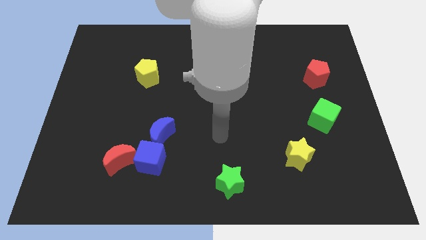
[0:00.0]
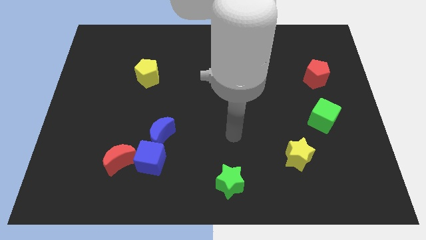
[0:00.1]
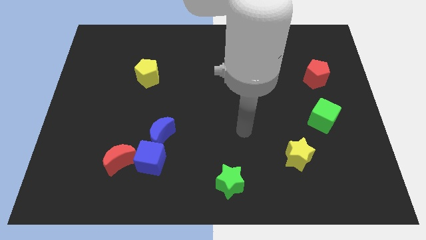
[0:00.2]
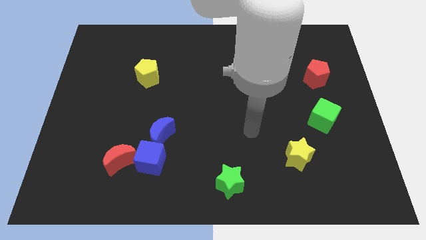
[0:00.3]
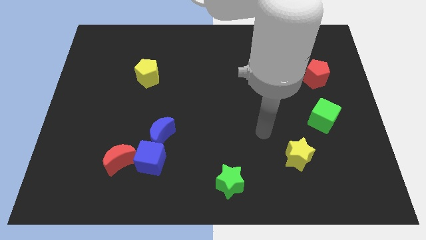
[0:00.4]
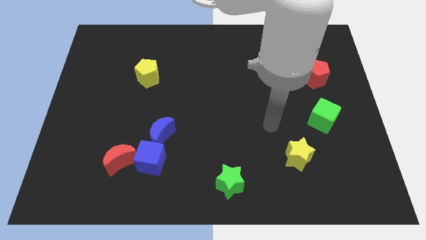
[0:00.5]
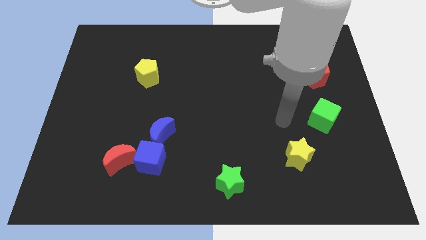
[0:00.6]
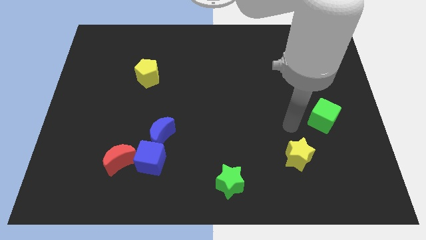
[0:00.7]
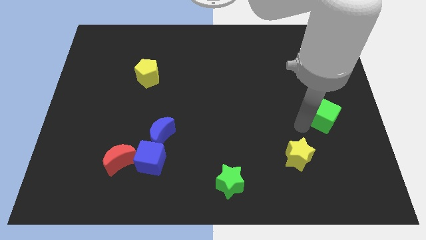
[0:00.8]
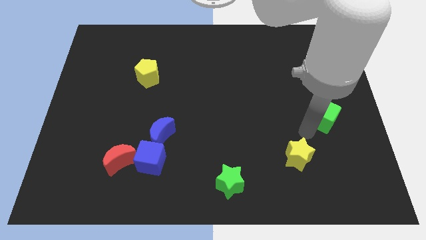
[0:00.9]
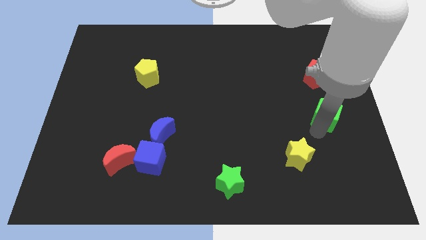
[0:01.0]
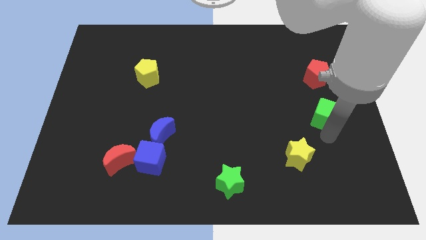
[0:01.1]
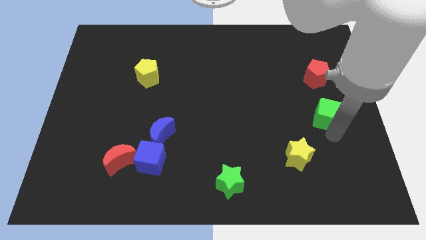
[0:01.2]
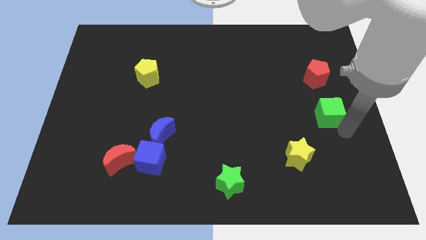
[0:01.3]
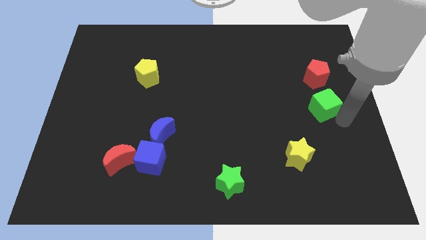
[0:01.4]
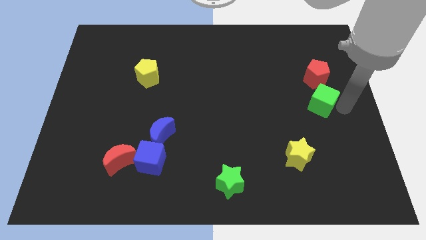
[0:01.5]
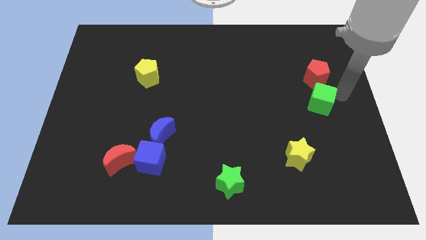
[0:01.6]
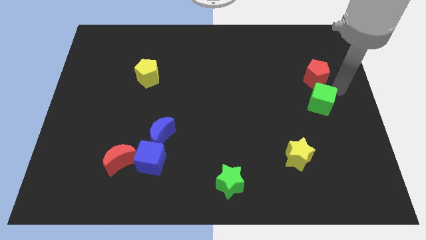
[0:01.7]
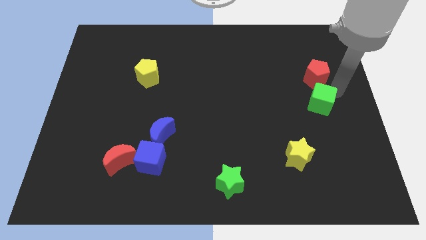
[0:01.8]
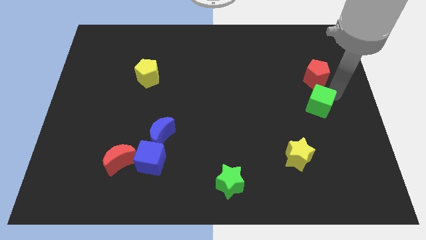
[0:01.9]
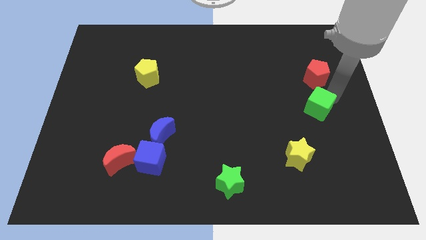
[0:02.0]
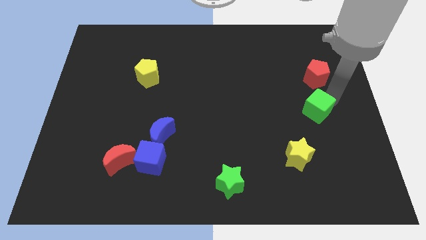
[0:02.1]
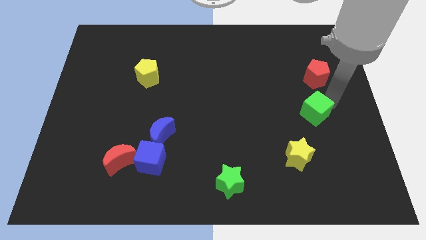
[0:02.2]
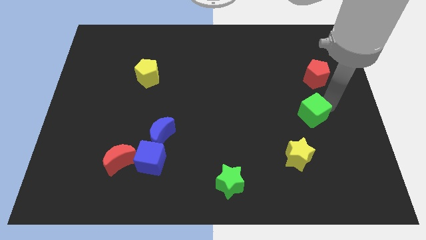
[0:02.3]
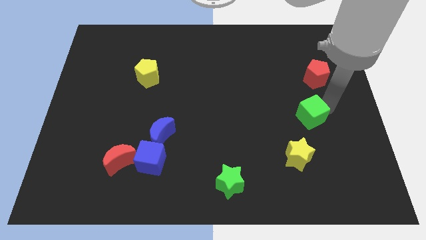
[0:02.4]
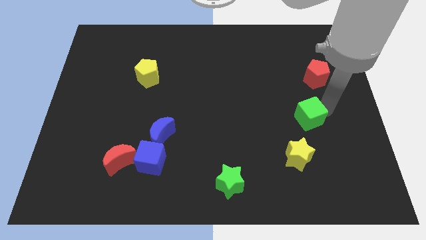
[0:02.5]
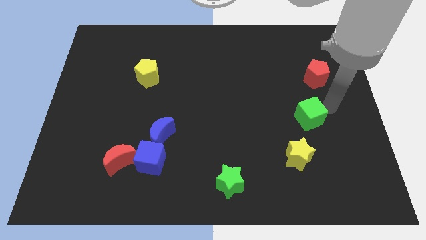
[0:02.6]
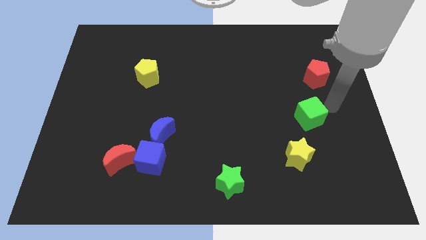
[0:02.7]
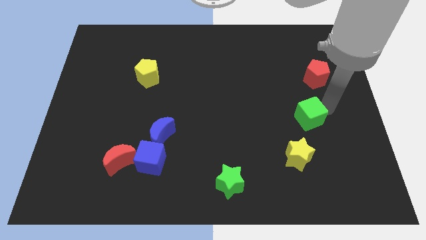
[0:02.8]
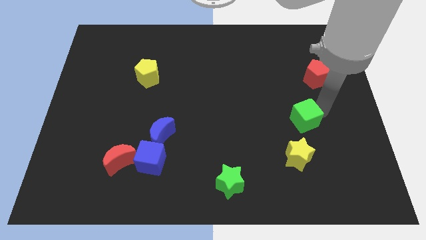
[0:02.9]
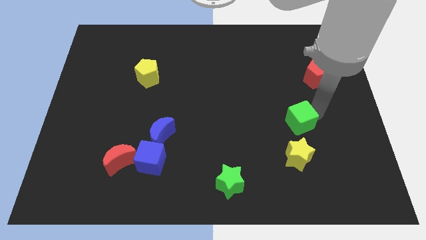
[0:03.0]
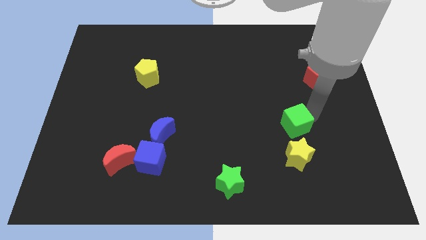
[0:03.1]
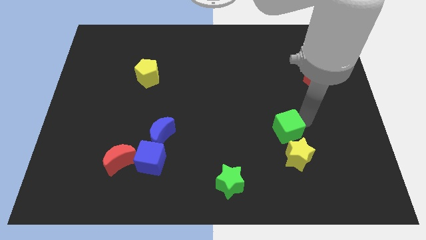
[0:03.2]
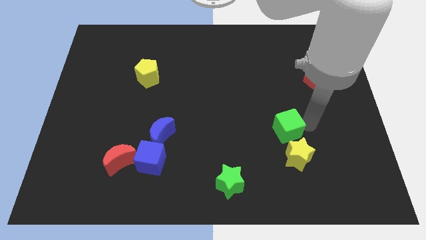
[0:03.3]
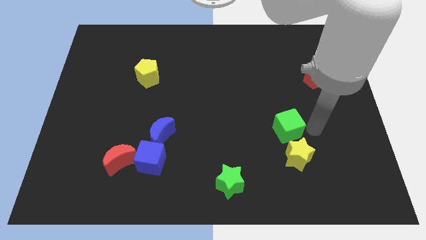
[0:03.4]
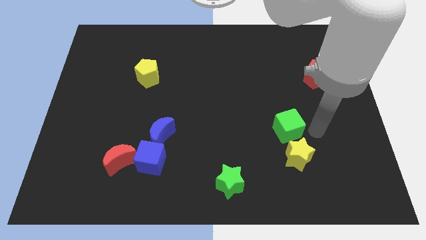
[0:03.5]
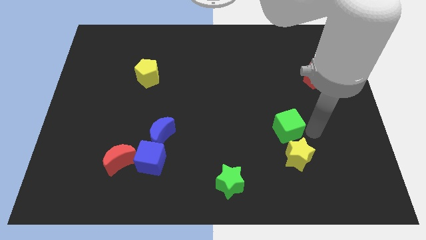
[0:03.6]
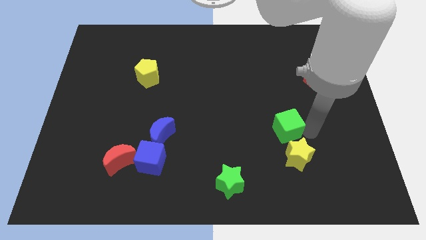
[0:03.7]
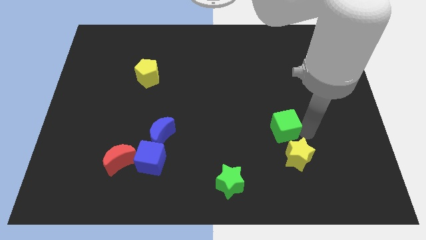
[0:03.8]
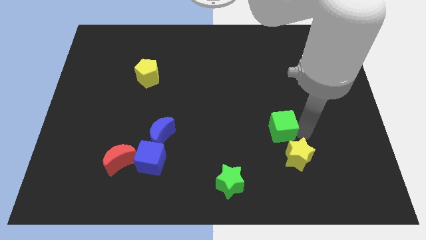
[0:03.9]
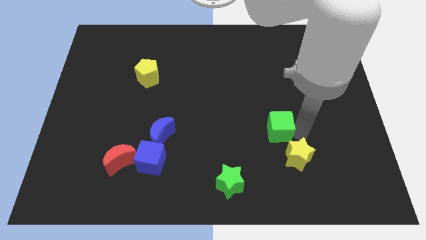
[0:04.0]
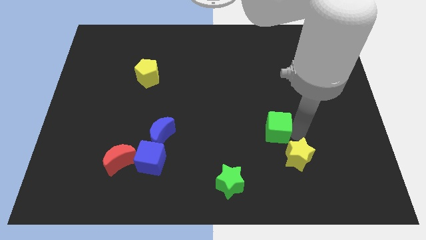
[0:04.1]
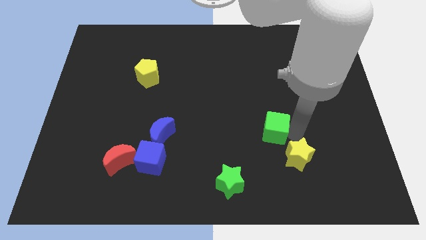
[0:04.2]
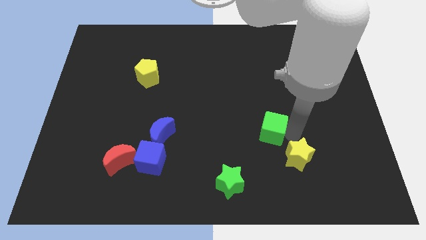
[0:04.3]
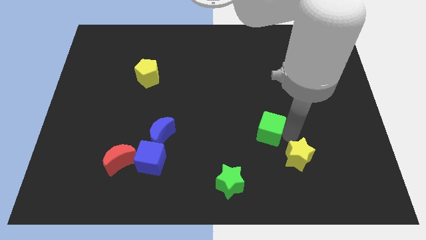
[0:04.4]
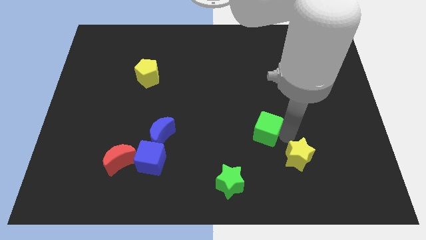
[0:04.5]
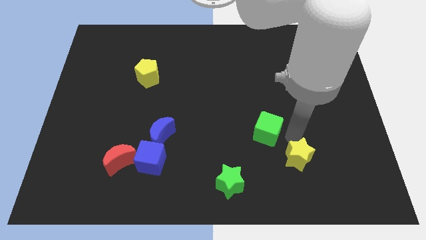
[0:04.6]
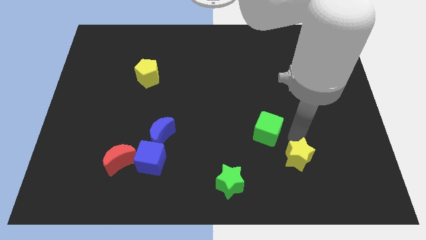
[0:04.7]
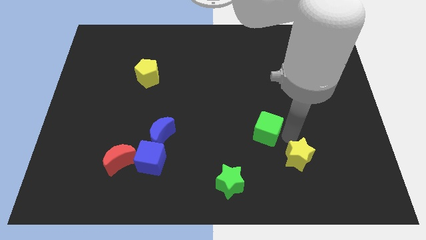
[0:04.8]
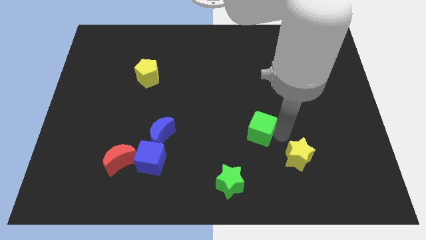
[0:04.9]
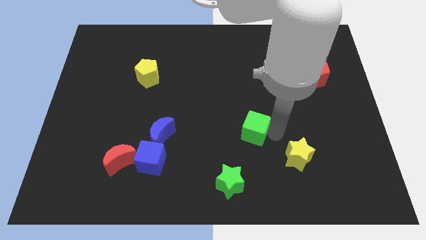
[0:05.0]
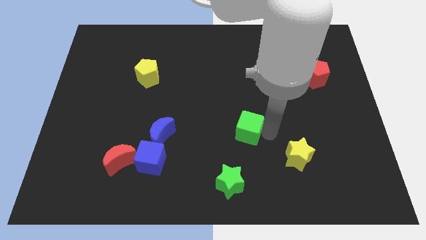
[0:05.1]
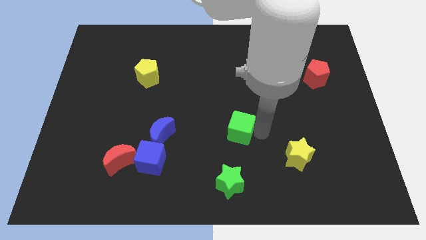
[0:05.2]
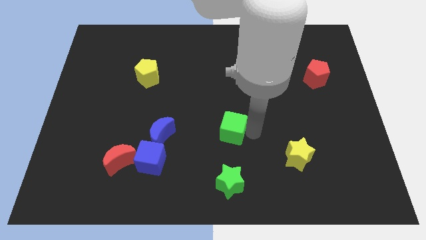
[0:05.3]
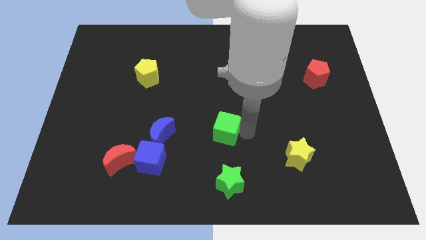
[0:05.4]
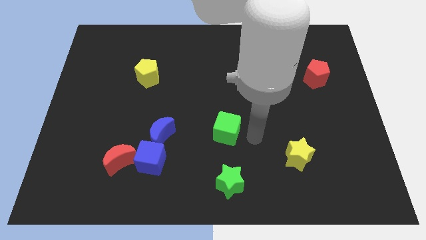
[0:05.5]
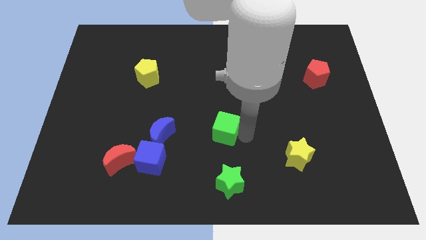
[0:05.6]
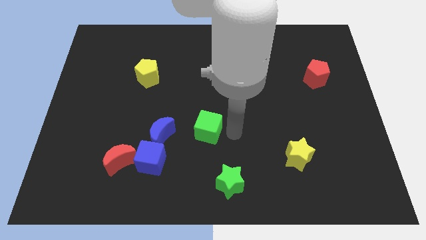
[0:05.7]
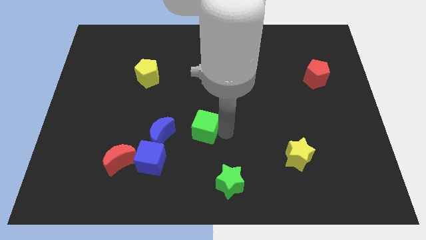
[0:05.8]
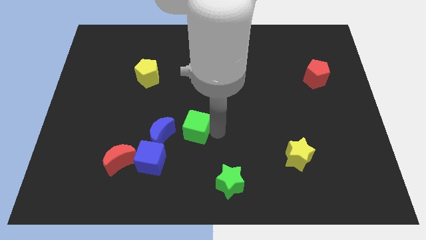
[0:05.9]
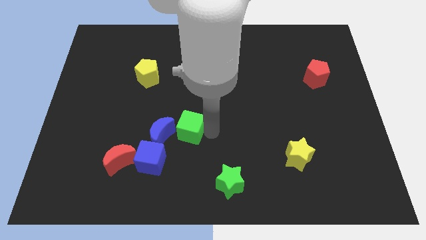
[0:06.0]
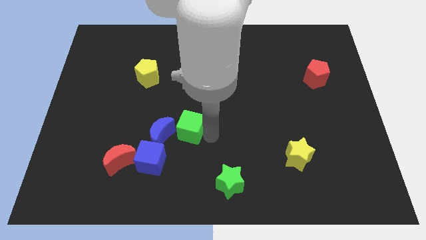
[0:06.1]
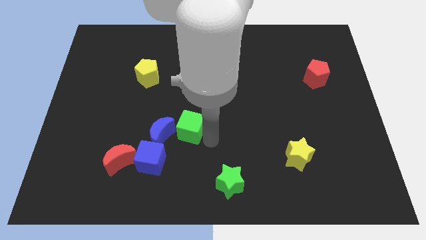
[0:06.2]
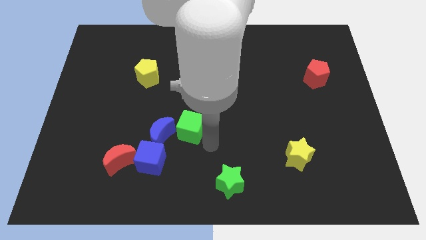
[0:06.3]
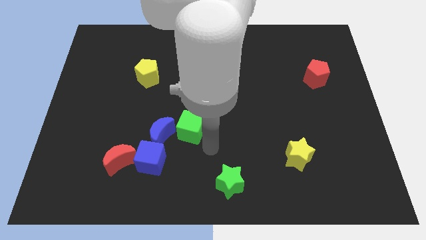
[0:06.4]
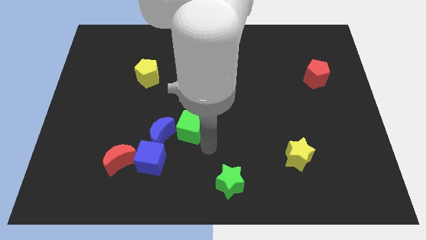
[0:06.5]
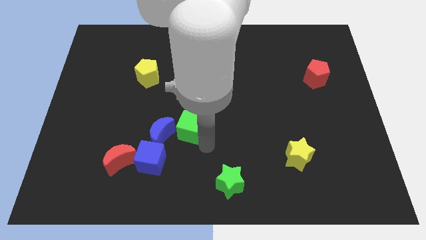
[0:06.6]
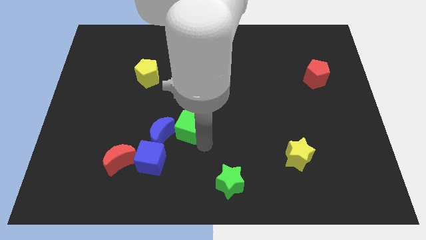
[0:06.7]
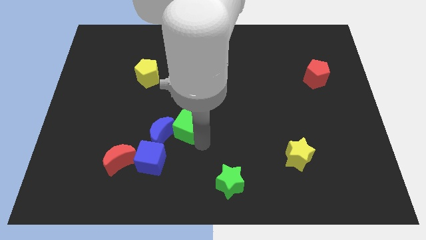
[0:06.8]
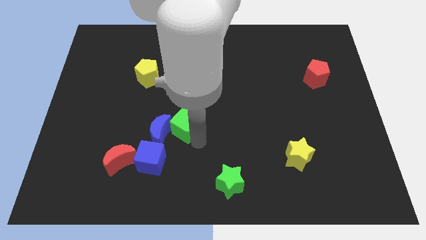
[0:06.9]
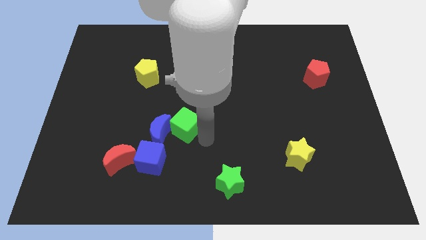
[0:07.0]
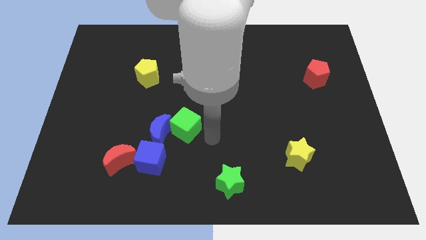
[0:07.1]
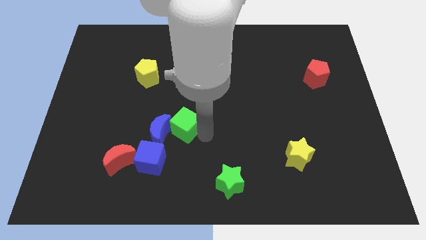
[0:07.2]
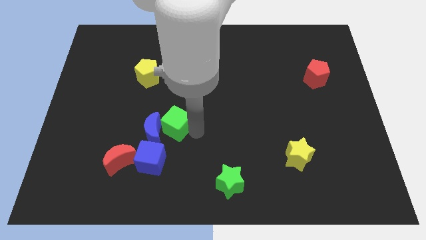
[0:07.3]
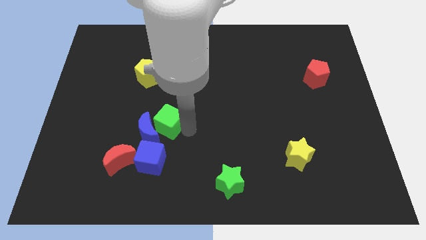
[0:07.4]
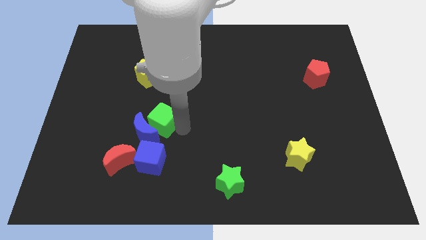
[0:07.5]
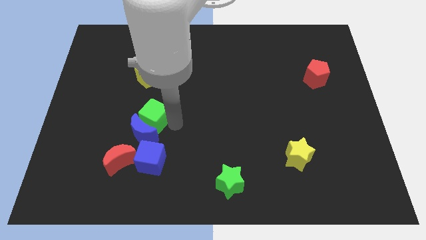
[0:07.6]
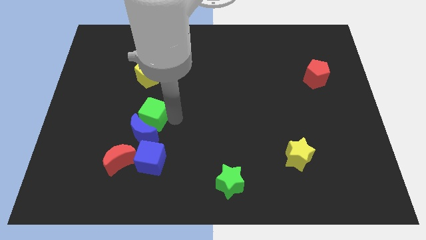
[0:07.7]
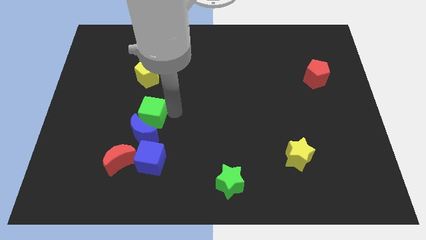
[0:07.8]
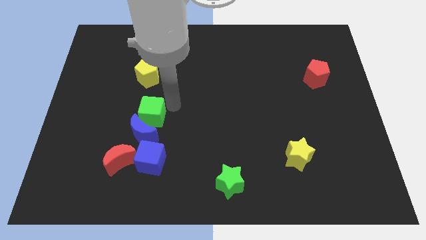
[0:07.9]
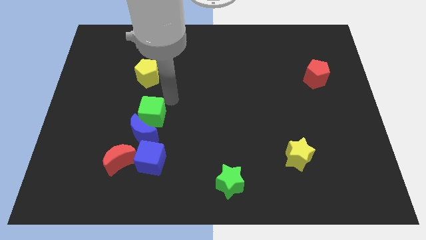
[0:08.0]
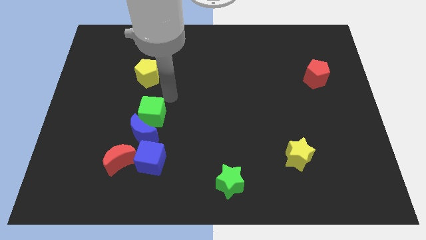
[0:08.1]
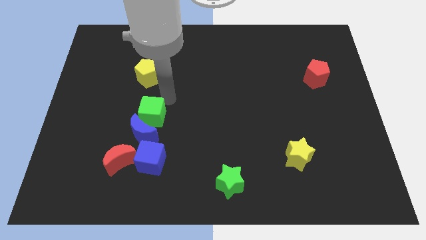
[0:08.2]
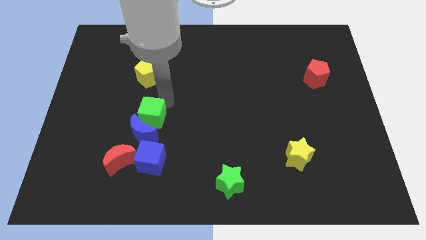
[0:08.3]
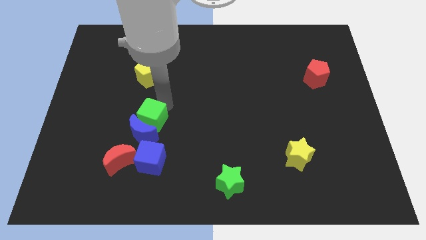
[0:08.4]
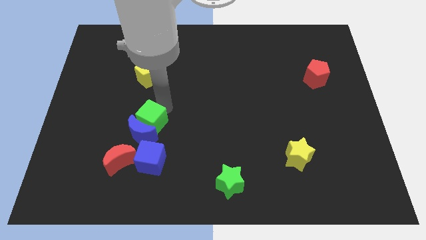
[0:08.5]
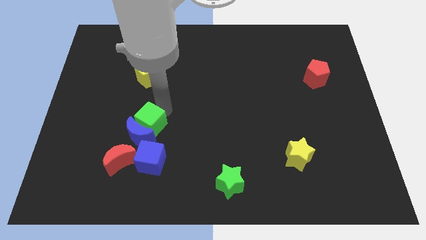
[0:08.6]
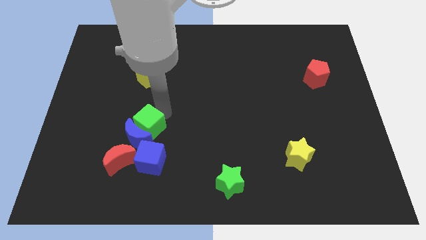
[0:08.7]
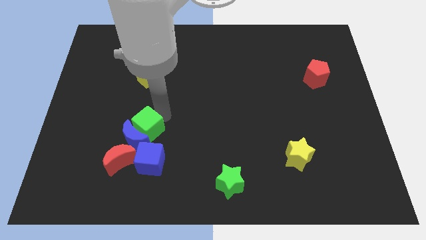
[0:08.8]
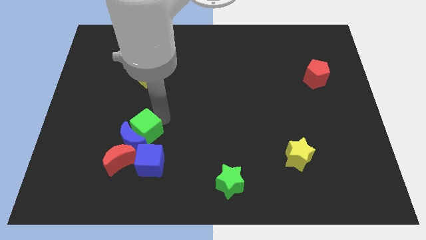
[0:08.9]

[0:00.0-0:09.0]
move the green cube to the top left of the blue cube
